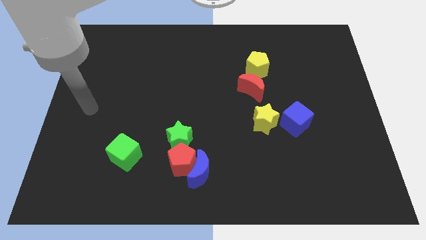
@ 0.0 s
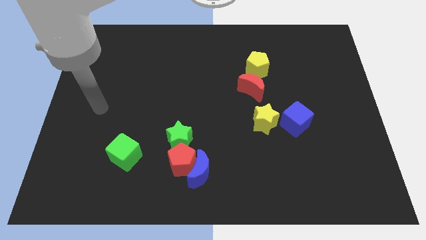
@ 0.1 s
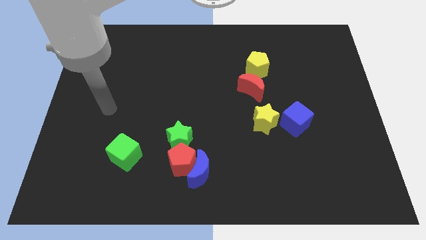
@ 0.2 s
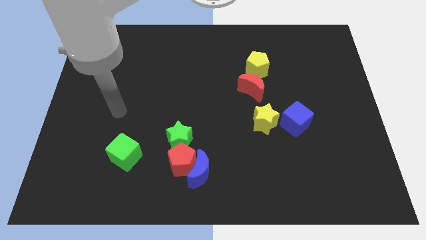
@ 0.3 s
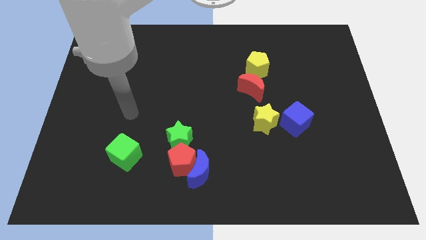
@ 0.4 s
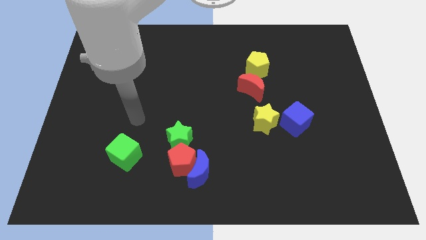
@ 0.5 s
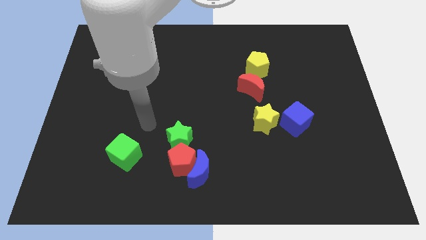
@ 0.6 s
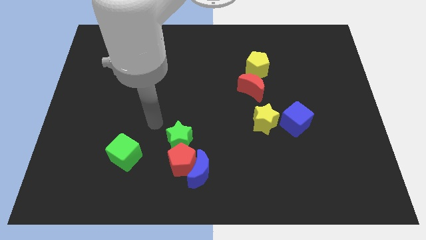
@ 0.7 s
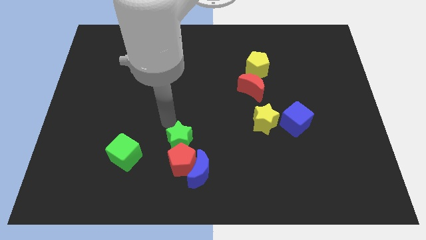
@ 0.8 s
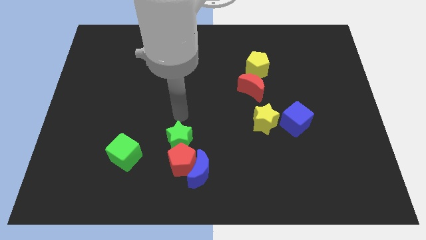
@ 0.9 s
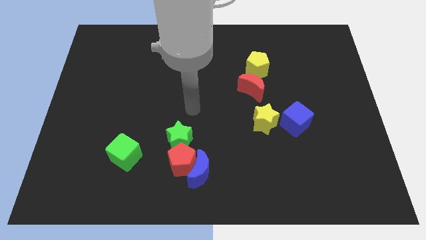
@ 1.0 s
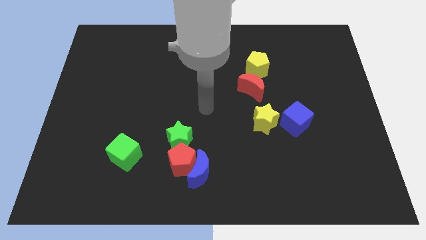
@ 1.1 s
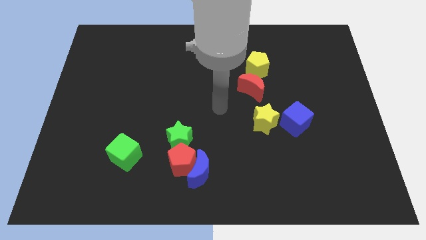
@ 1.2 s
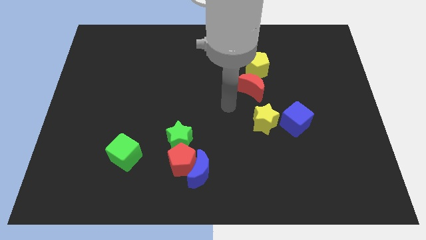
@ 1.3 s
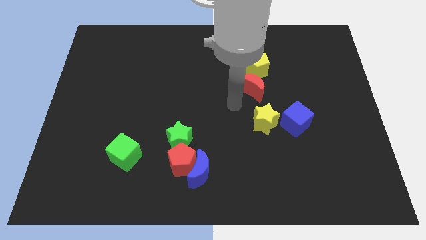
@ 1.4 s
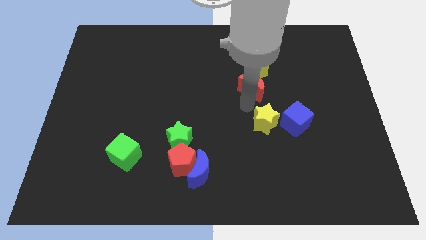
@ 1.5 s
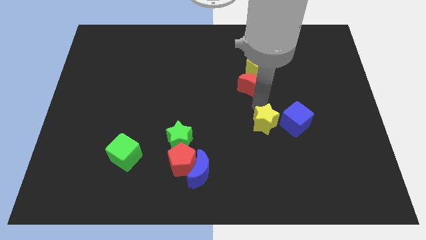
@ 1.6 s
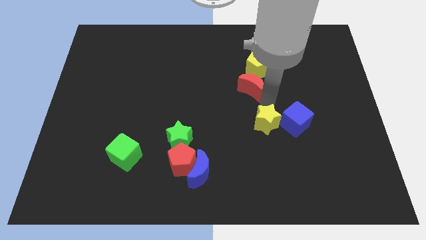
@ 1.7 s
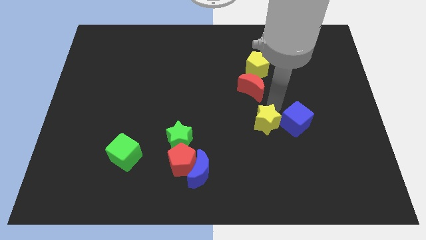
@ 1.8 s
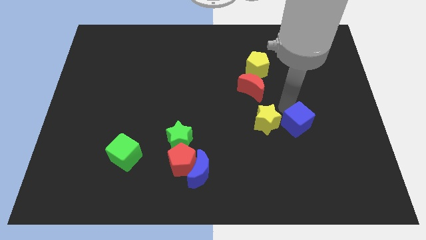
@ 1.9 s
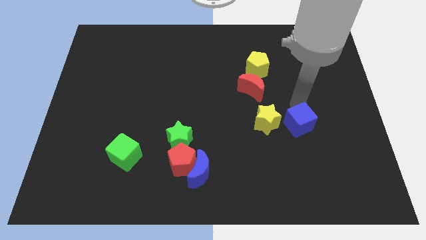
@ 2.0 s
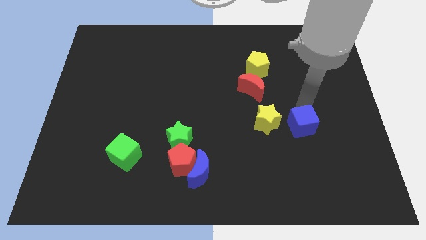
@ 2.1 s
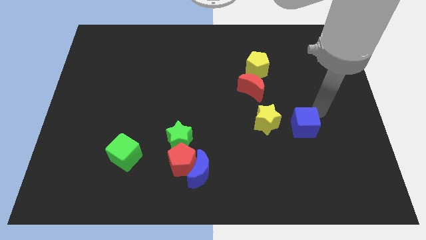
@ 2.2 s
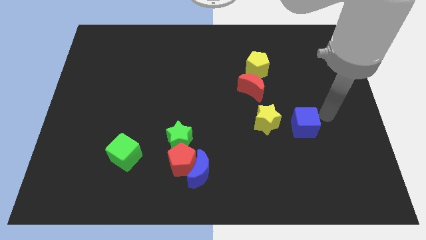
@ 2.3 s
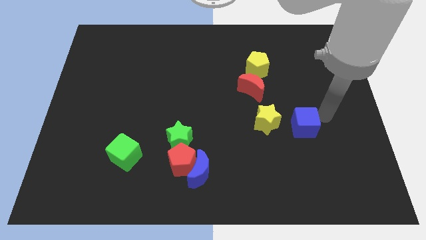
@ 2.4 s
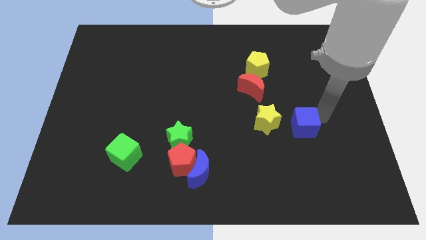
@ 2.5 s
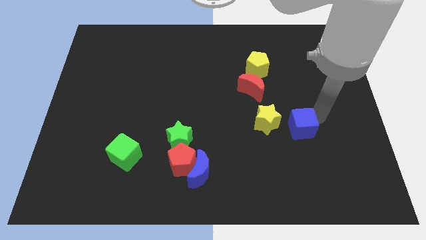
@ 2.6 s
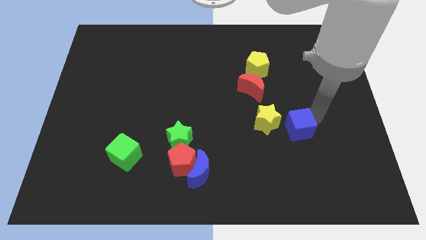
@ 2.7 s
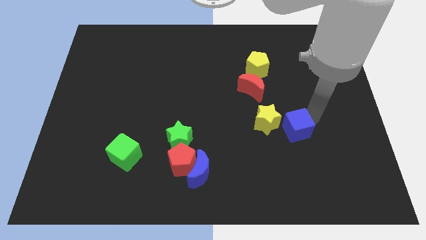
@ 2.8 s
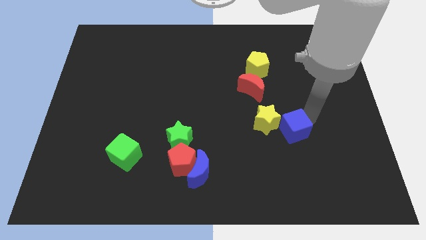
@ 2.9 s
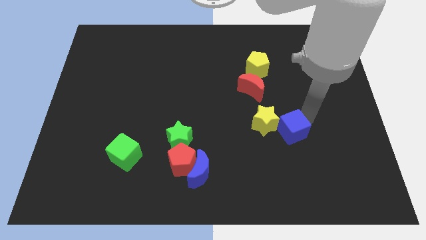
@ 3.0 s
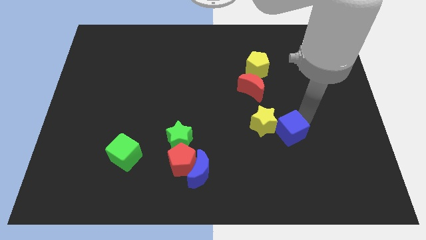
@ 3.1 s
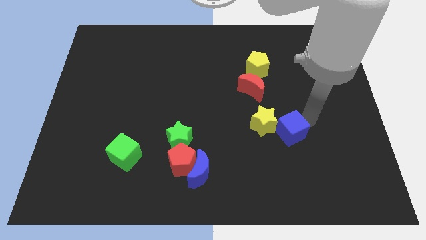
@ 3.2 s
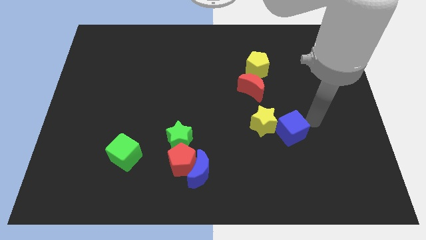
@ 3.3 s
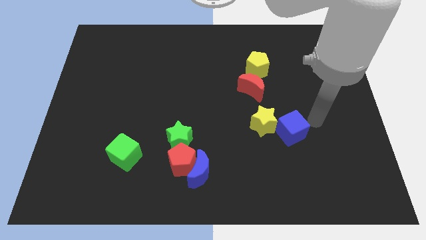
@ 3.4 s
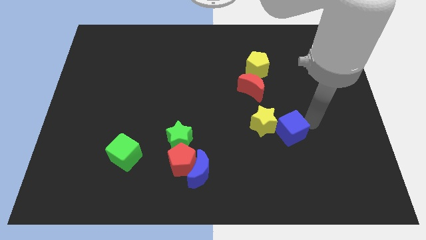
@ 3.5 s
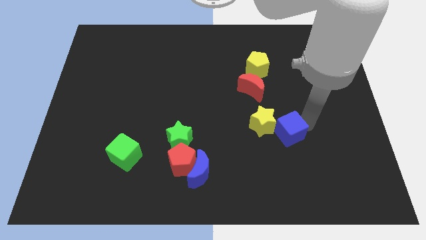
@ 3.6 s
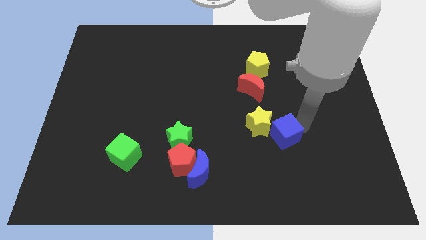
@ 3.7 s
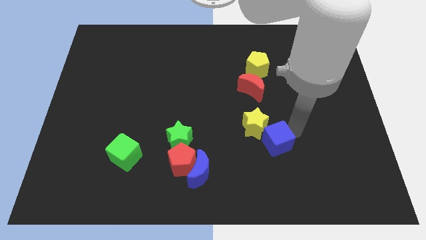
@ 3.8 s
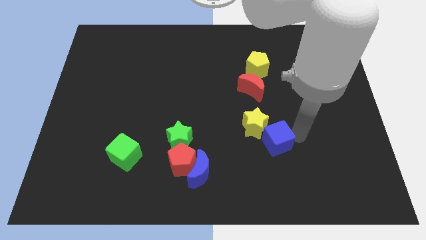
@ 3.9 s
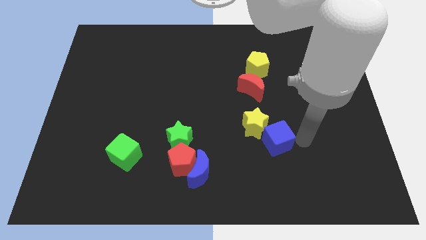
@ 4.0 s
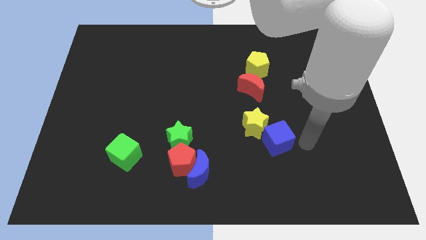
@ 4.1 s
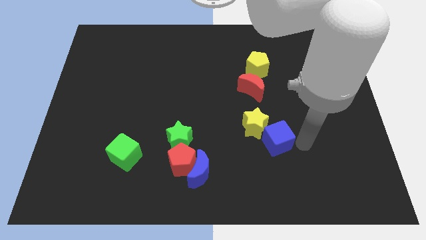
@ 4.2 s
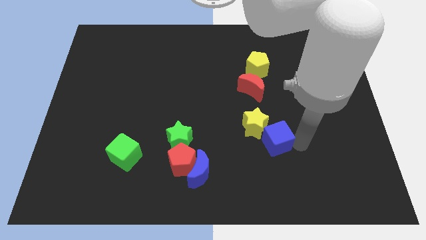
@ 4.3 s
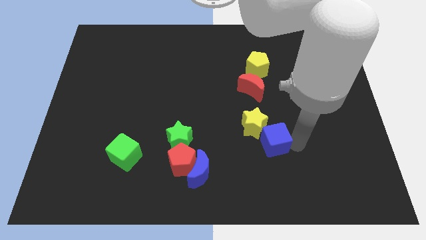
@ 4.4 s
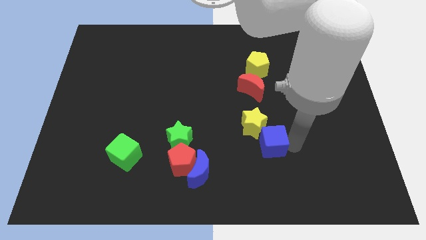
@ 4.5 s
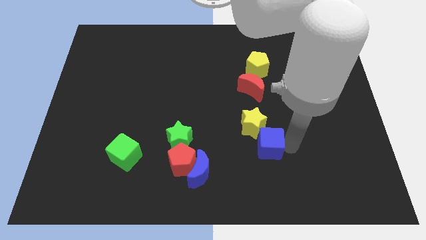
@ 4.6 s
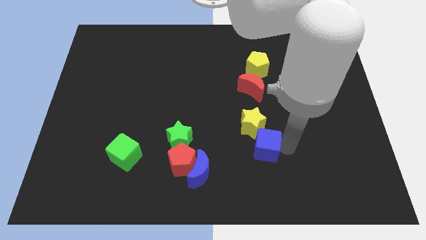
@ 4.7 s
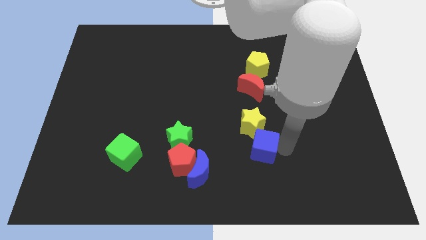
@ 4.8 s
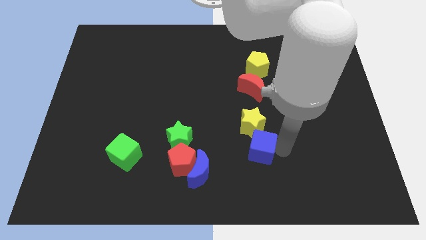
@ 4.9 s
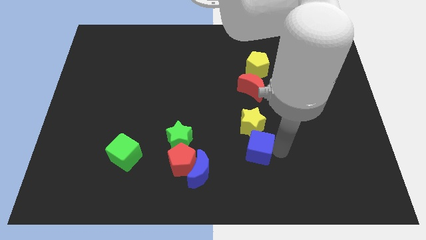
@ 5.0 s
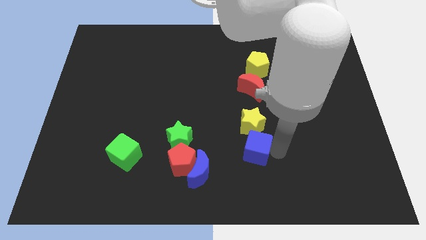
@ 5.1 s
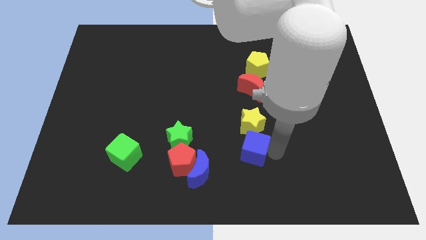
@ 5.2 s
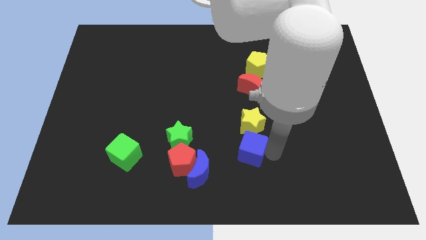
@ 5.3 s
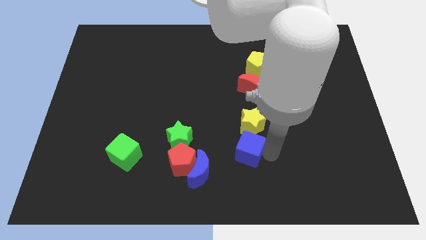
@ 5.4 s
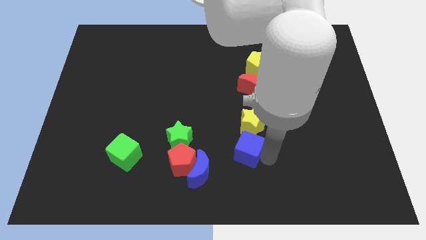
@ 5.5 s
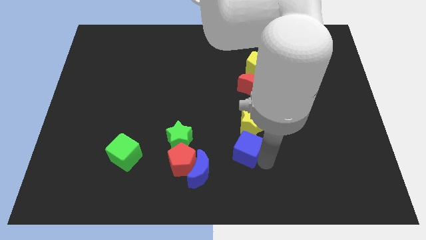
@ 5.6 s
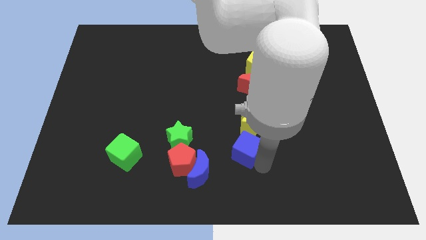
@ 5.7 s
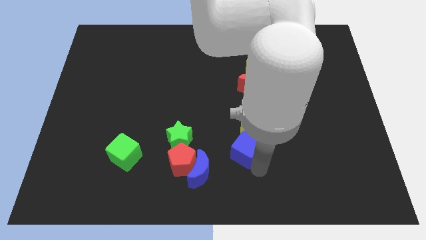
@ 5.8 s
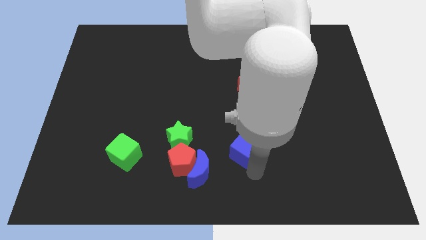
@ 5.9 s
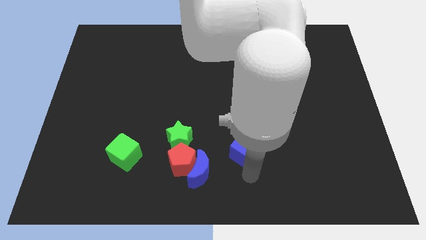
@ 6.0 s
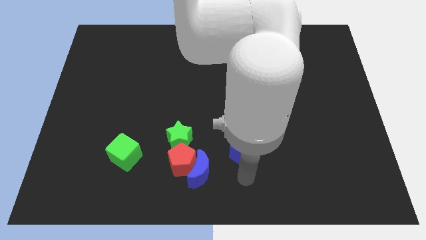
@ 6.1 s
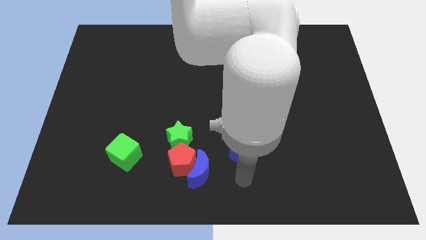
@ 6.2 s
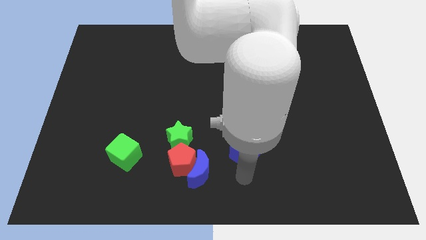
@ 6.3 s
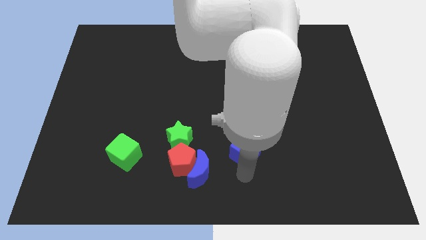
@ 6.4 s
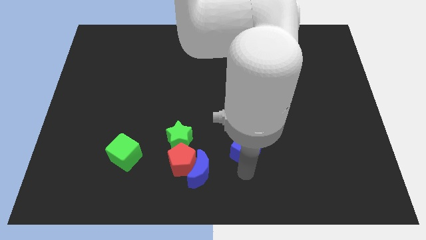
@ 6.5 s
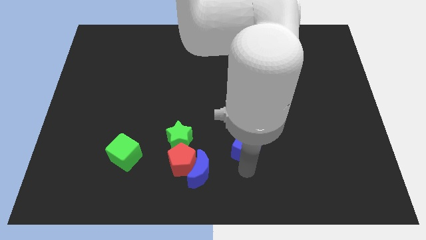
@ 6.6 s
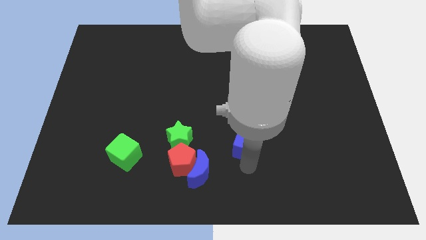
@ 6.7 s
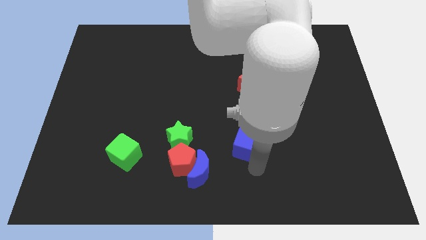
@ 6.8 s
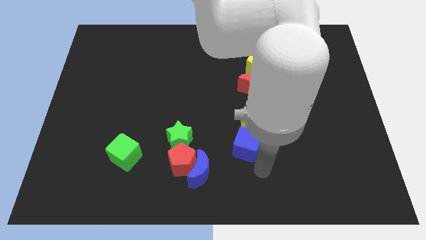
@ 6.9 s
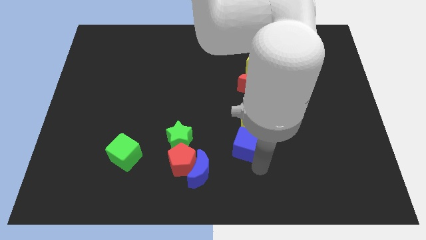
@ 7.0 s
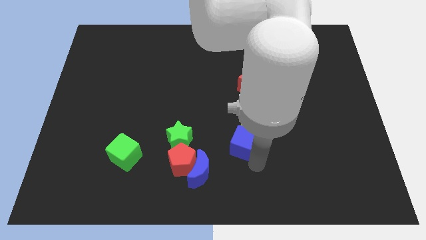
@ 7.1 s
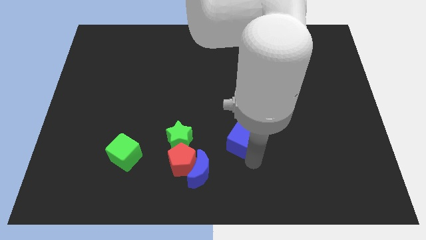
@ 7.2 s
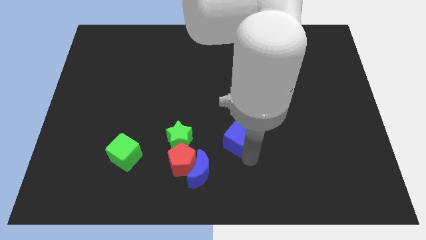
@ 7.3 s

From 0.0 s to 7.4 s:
move the blue cube to the center
